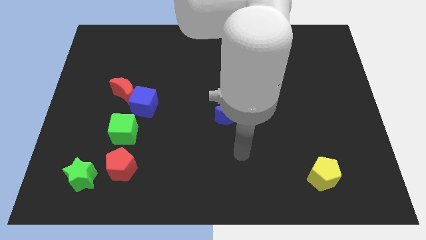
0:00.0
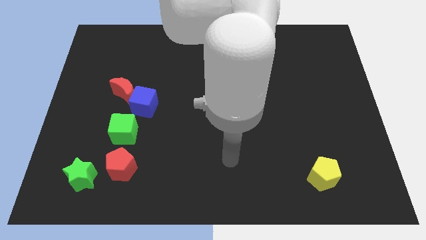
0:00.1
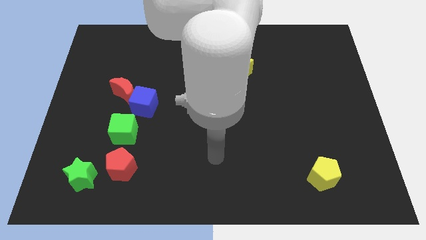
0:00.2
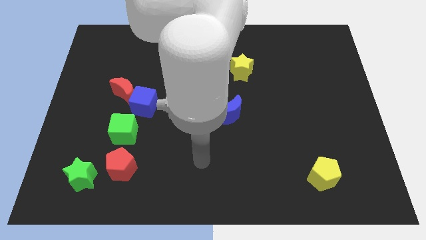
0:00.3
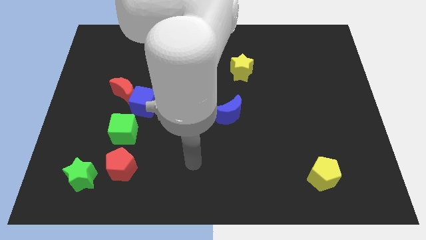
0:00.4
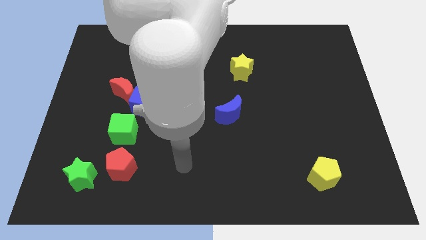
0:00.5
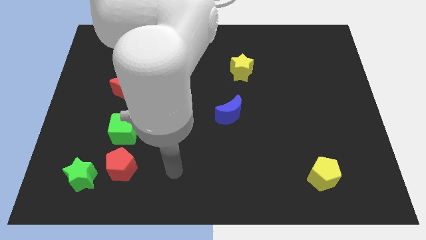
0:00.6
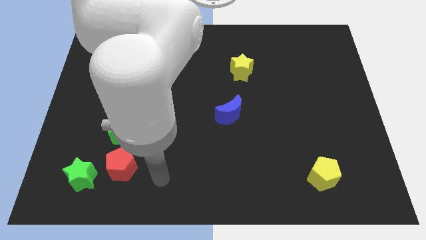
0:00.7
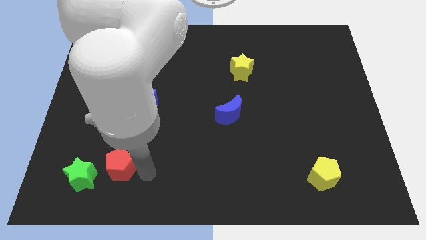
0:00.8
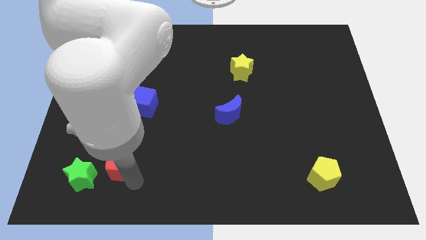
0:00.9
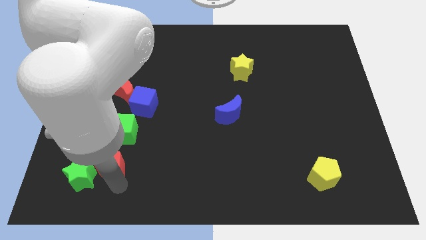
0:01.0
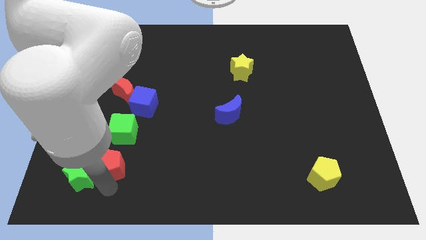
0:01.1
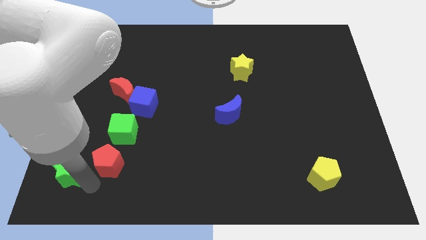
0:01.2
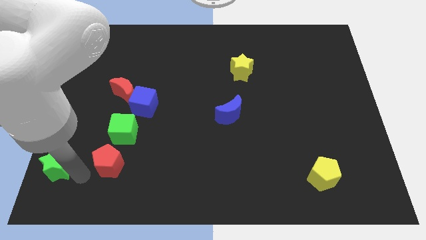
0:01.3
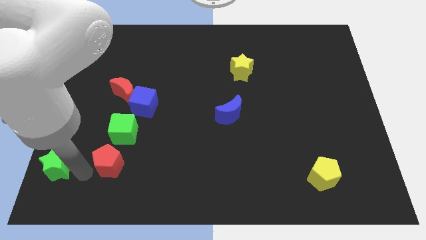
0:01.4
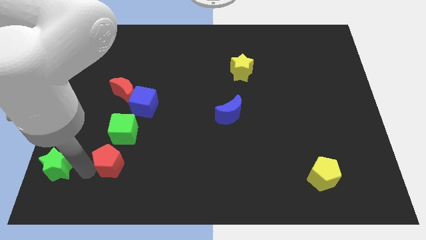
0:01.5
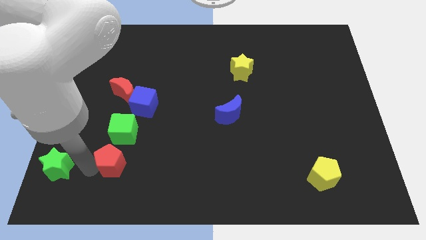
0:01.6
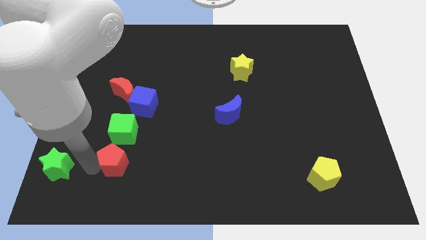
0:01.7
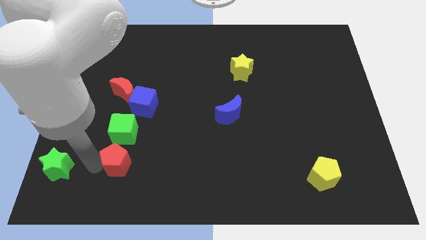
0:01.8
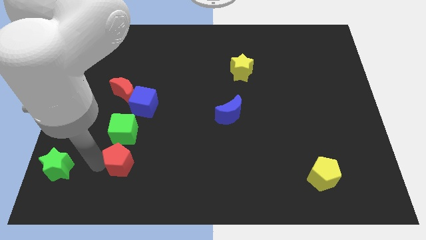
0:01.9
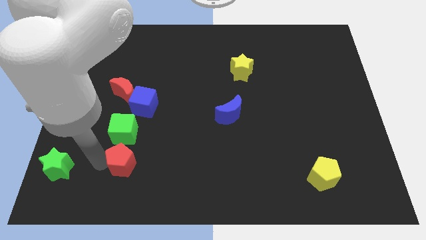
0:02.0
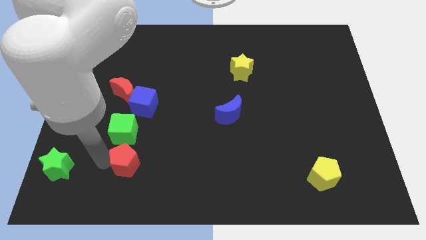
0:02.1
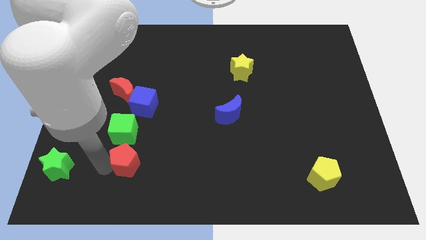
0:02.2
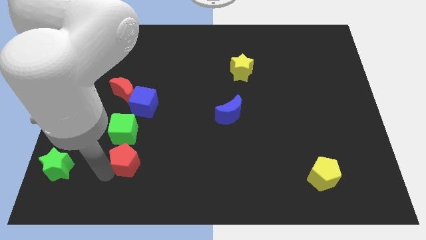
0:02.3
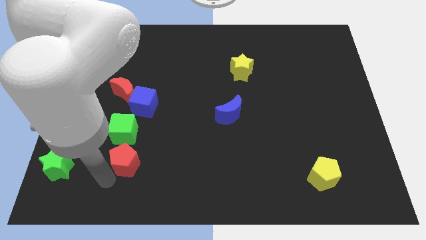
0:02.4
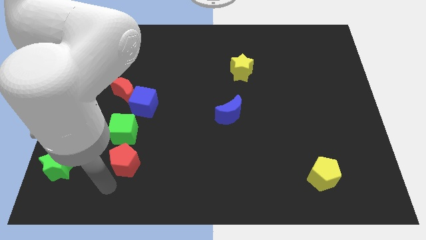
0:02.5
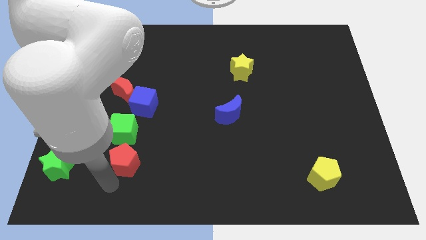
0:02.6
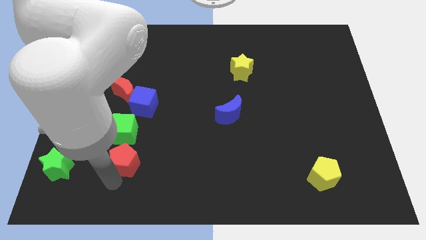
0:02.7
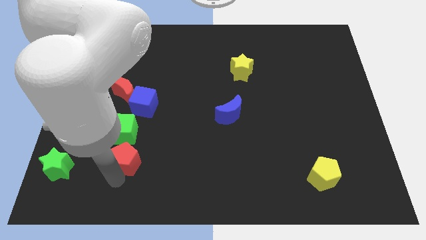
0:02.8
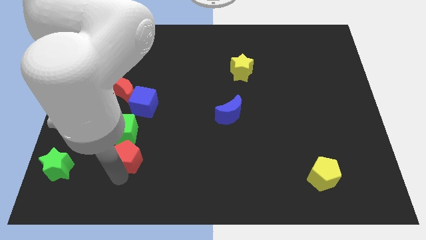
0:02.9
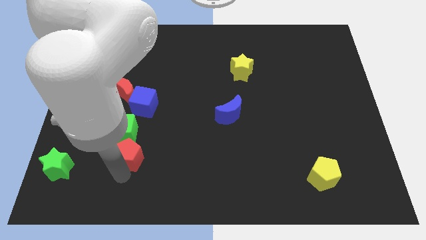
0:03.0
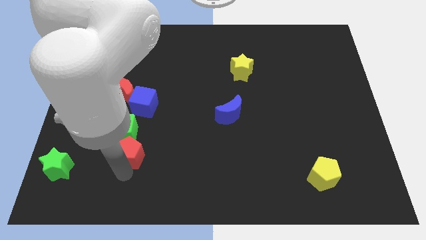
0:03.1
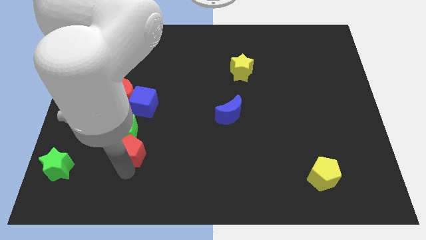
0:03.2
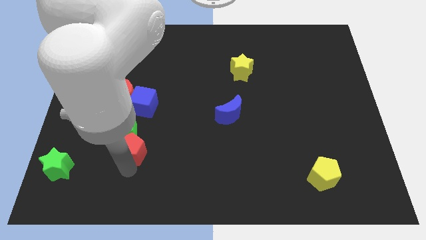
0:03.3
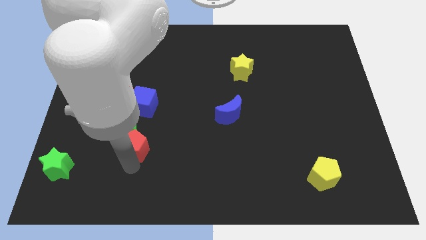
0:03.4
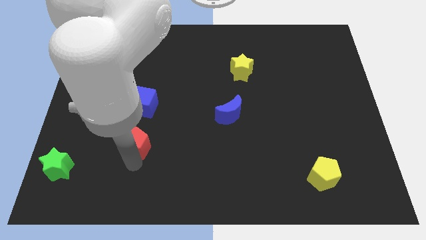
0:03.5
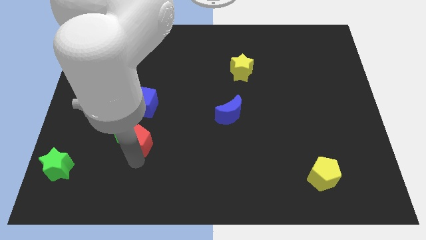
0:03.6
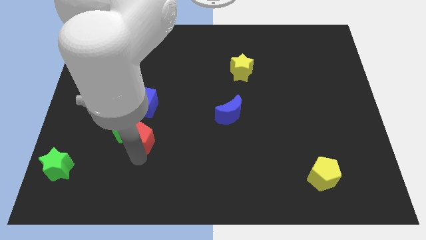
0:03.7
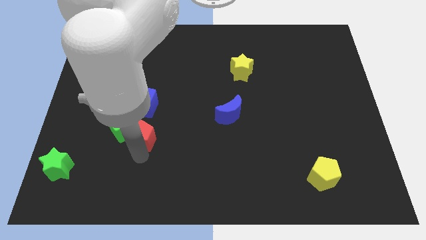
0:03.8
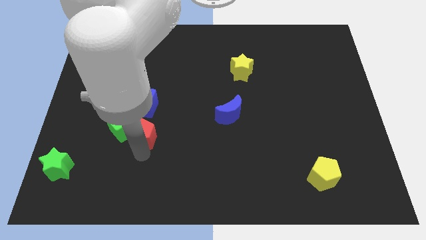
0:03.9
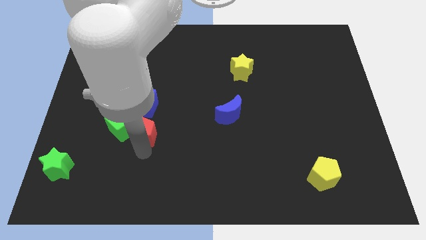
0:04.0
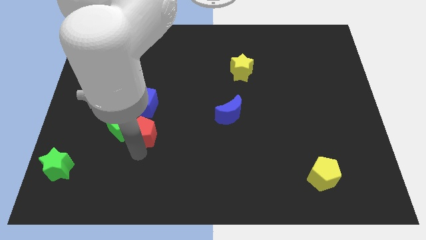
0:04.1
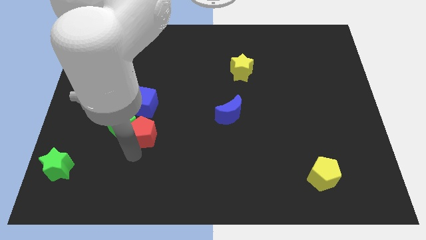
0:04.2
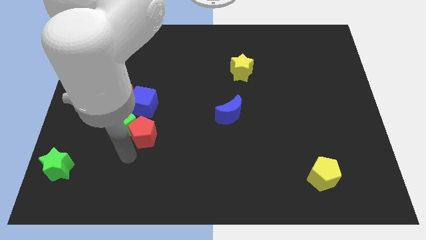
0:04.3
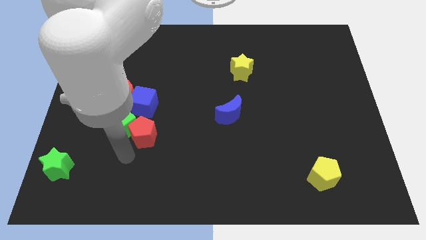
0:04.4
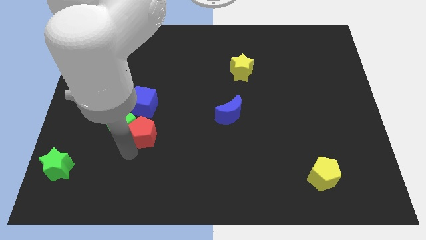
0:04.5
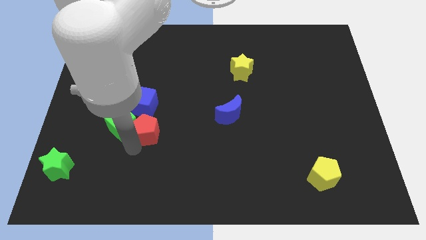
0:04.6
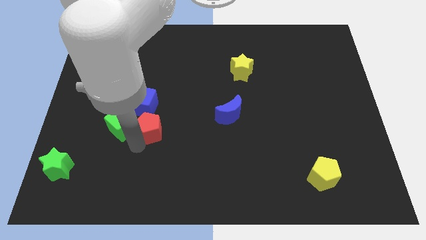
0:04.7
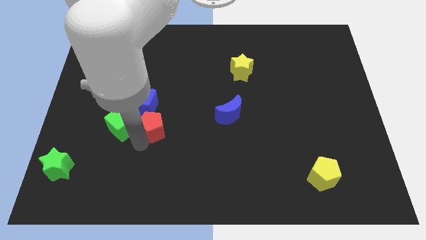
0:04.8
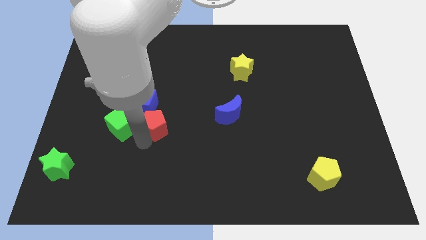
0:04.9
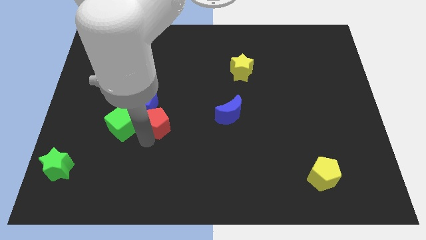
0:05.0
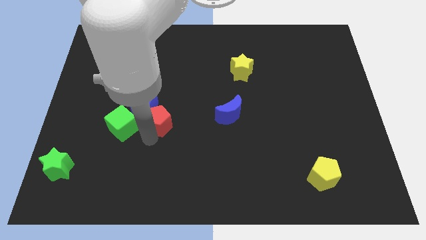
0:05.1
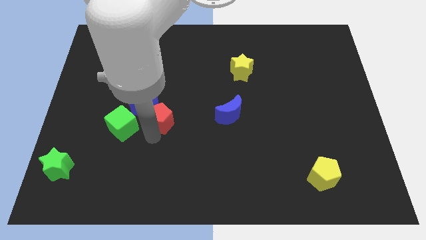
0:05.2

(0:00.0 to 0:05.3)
slide the red pentagon close to the blue cube

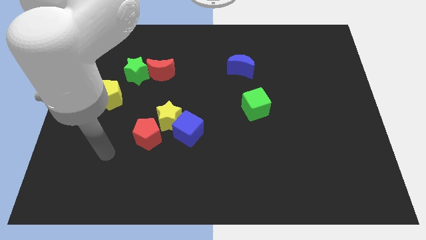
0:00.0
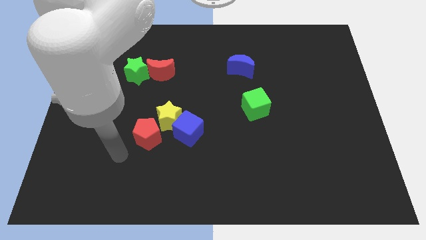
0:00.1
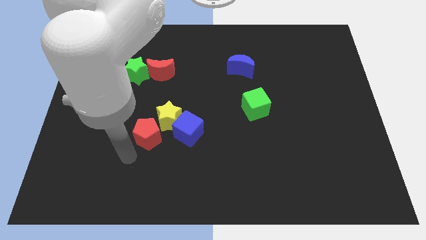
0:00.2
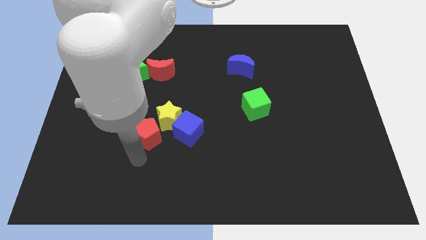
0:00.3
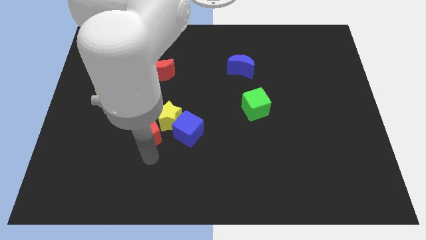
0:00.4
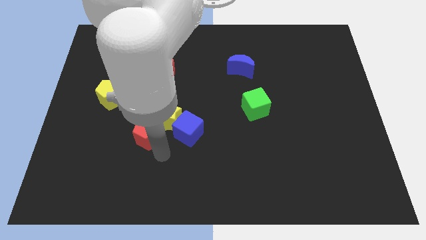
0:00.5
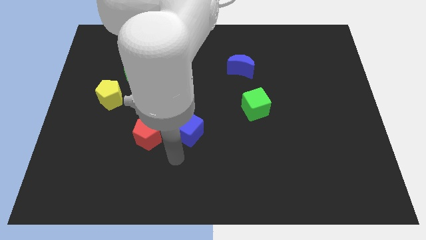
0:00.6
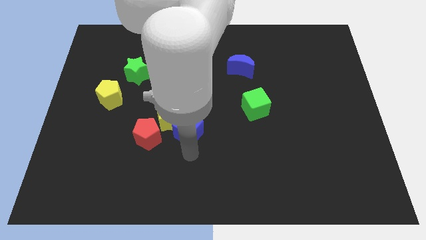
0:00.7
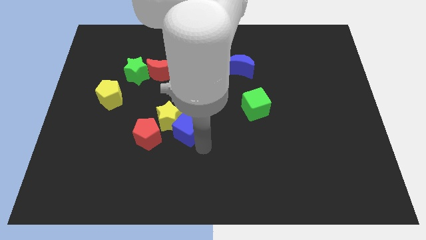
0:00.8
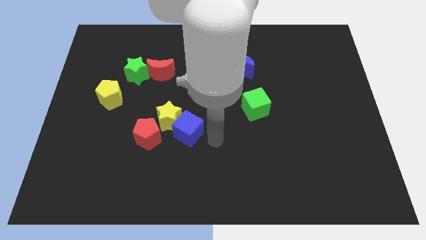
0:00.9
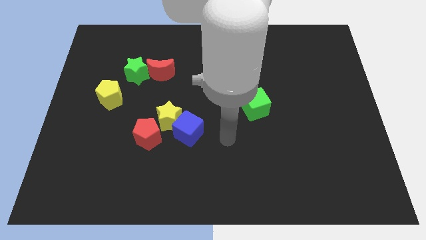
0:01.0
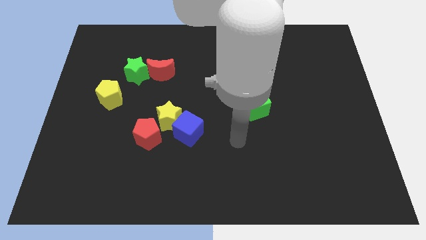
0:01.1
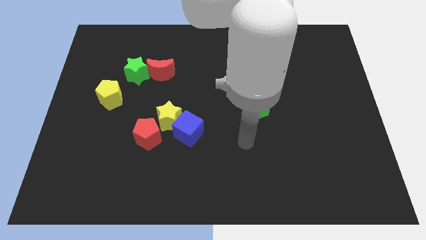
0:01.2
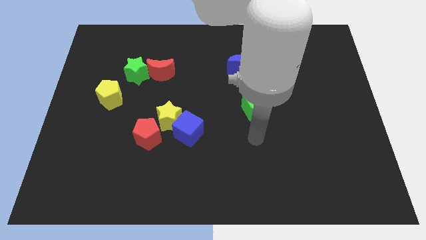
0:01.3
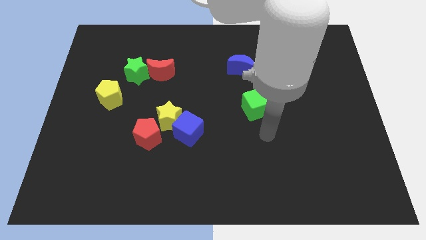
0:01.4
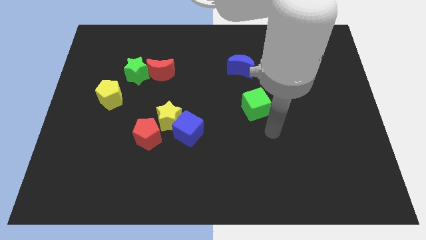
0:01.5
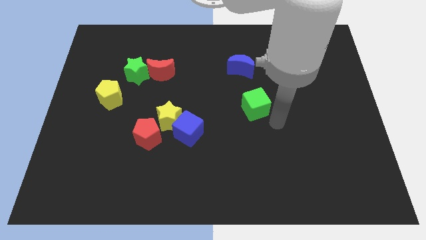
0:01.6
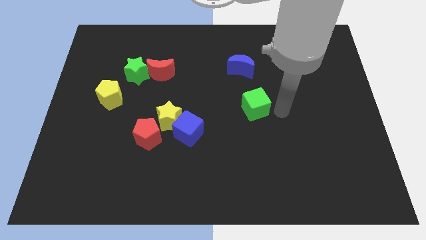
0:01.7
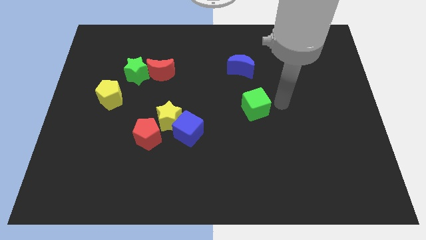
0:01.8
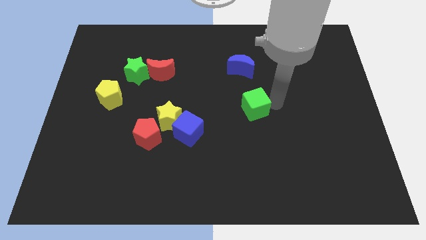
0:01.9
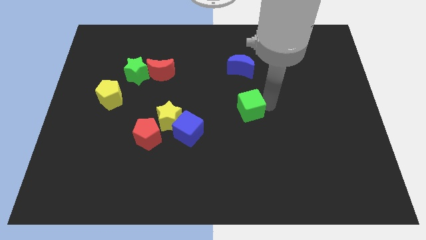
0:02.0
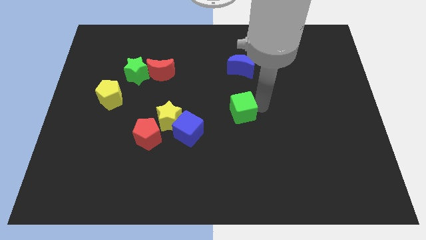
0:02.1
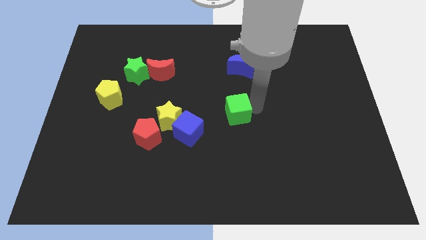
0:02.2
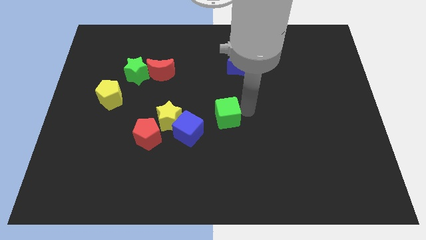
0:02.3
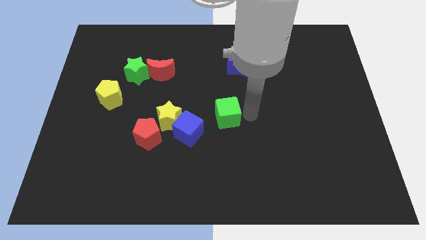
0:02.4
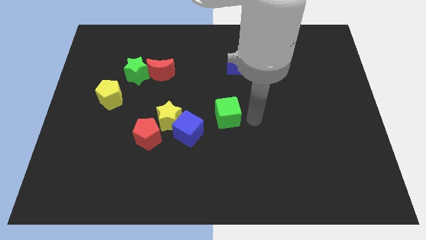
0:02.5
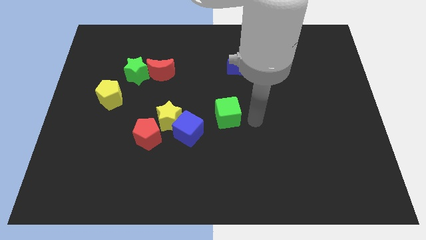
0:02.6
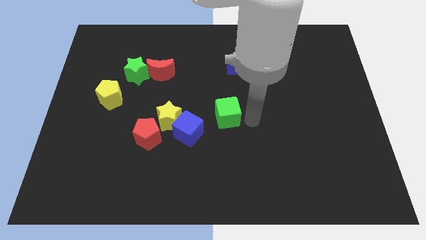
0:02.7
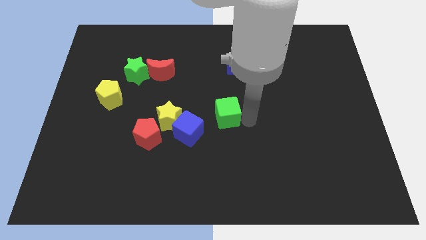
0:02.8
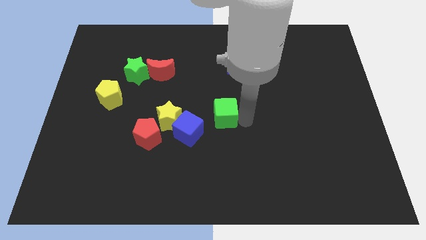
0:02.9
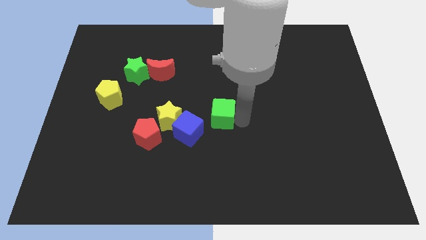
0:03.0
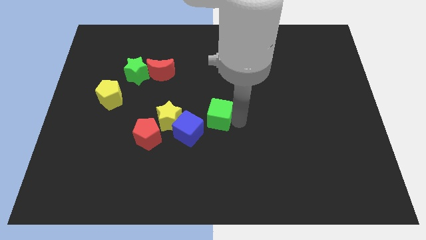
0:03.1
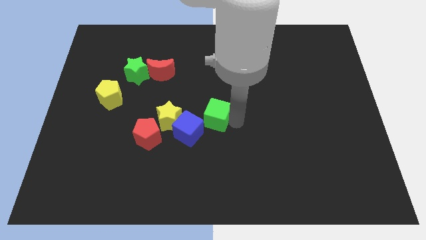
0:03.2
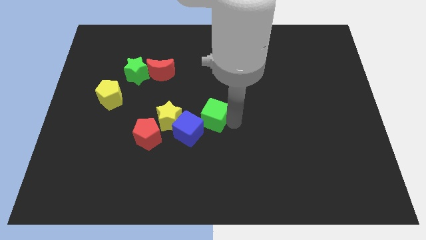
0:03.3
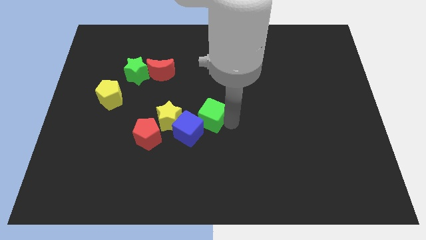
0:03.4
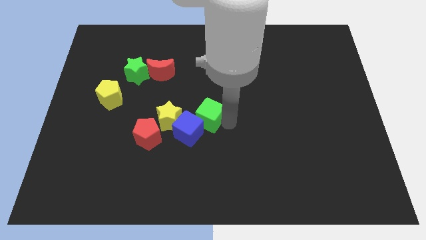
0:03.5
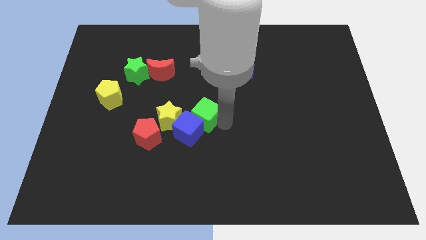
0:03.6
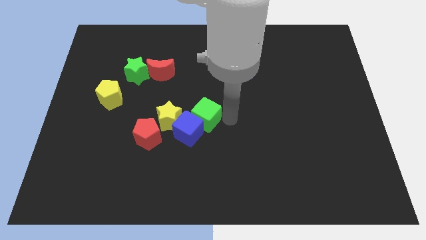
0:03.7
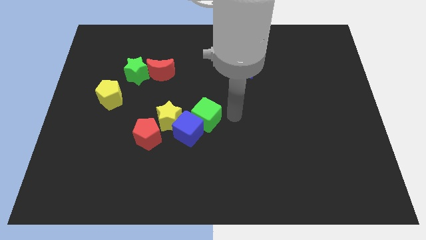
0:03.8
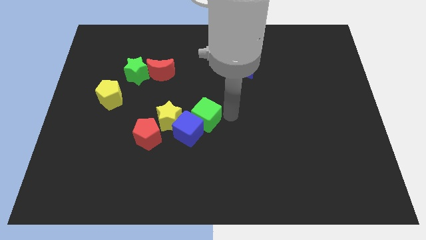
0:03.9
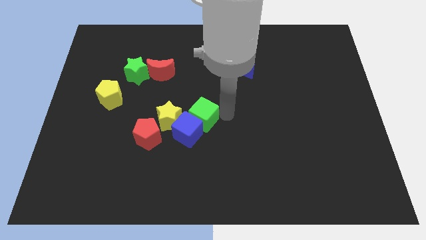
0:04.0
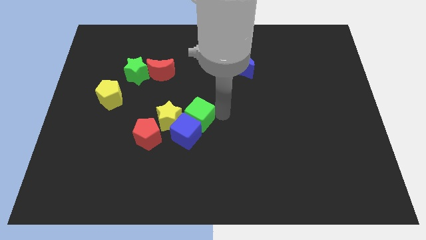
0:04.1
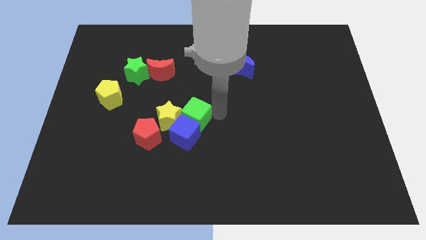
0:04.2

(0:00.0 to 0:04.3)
push the green cube next to the yellow star
